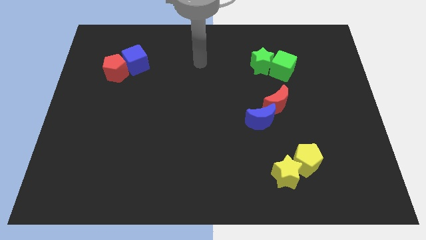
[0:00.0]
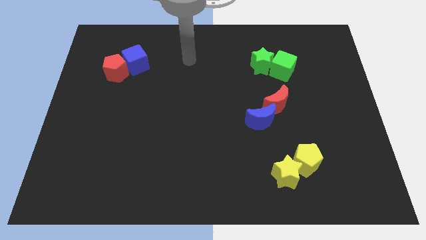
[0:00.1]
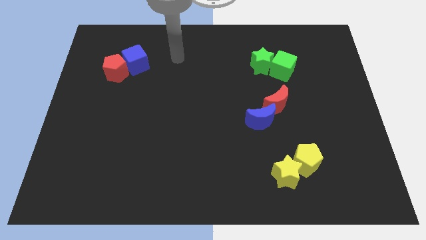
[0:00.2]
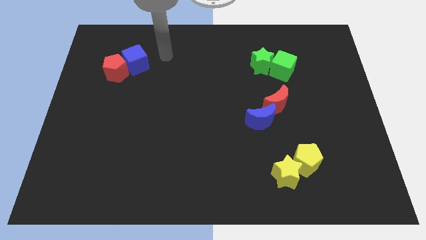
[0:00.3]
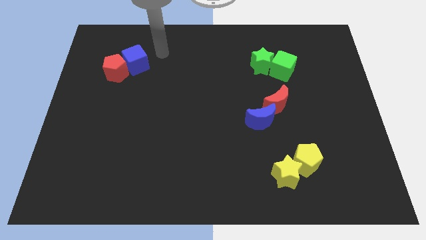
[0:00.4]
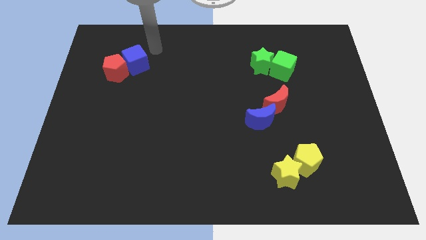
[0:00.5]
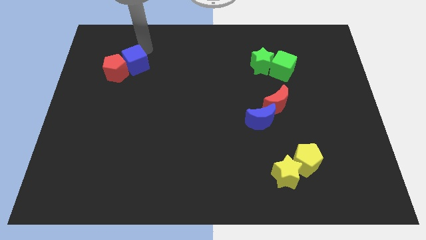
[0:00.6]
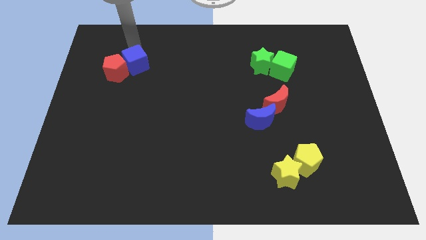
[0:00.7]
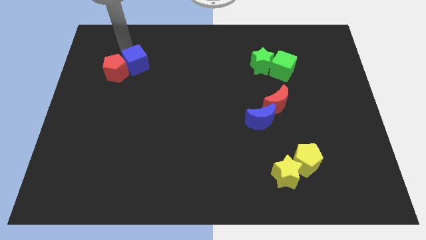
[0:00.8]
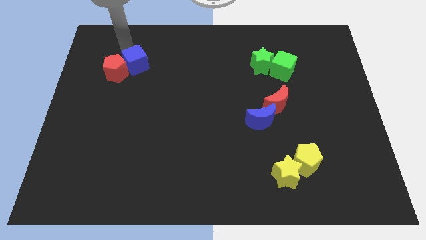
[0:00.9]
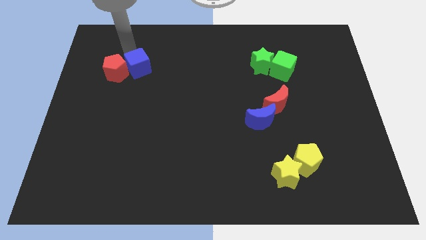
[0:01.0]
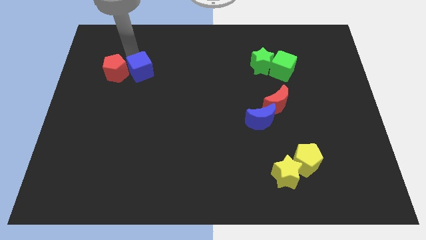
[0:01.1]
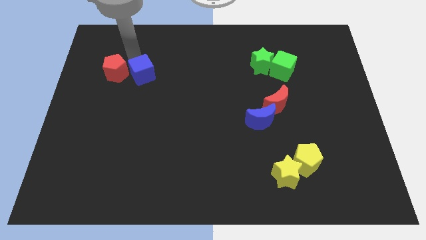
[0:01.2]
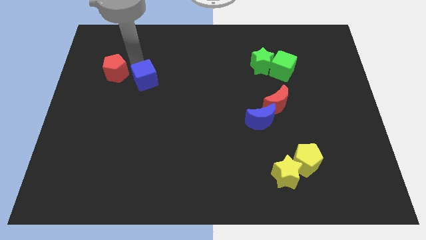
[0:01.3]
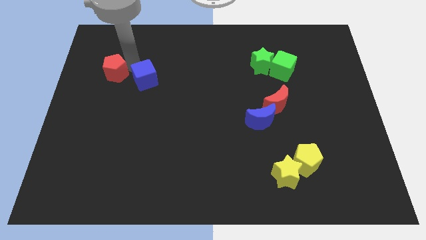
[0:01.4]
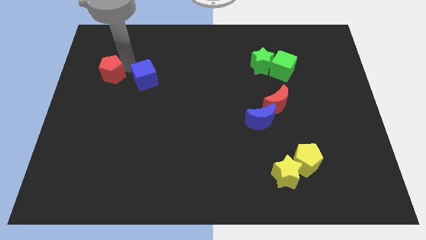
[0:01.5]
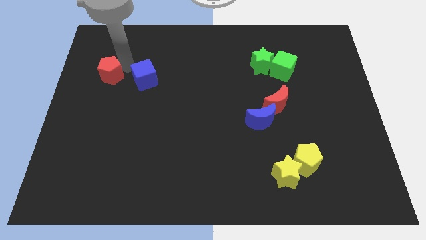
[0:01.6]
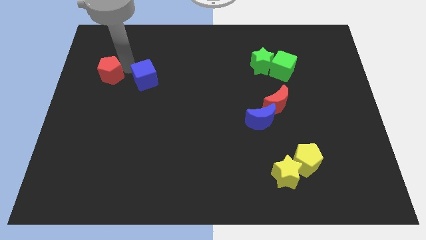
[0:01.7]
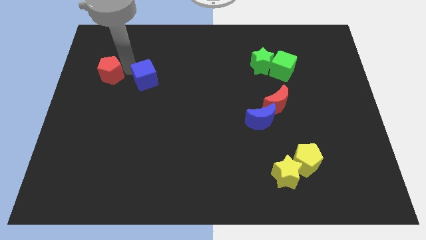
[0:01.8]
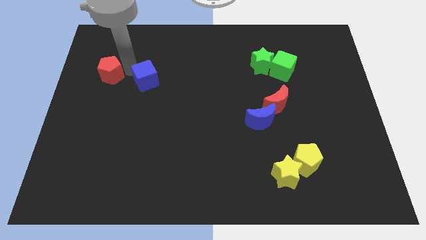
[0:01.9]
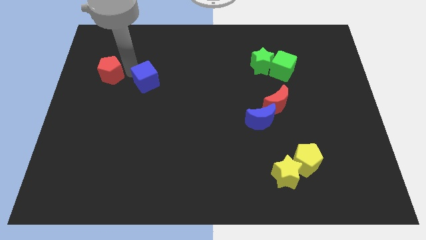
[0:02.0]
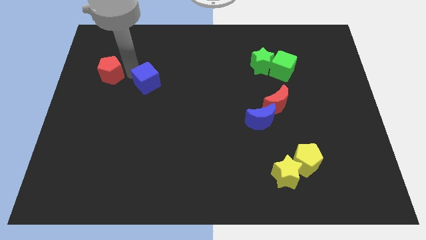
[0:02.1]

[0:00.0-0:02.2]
push the blue cube somewhat downwards and then to the right

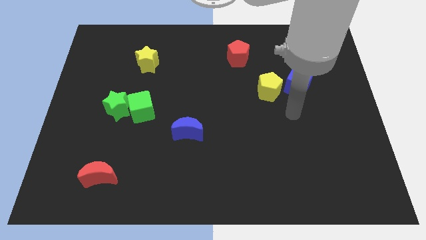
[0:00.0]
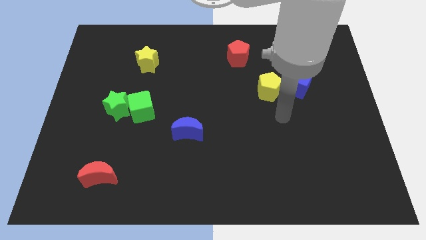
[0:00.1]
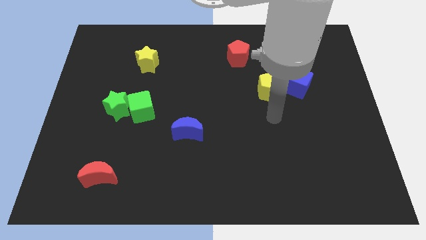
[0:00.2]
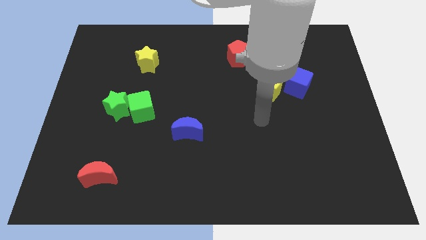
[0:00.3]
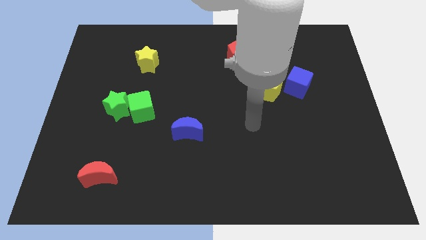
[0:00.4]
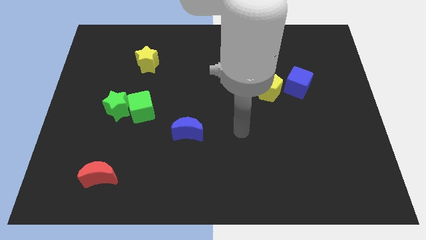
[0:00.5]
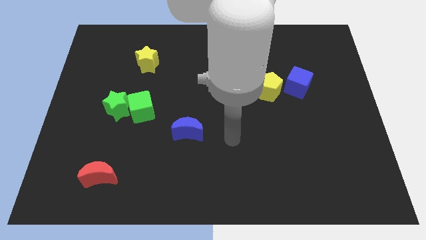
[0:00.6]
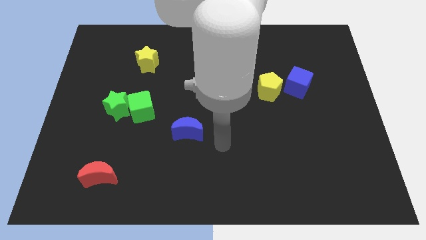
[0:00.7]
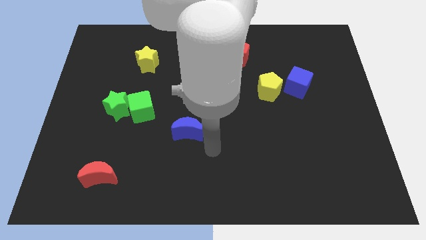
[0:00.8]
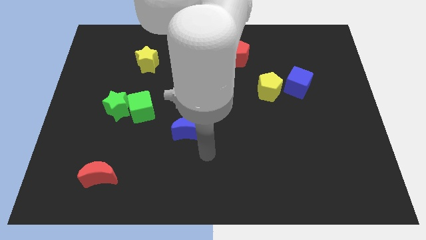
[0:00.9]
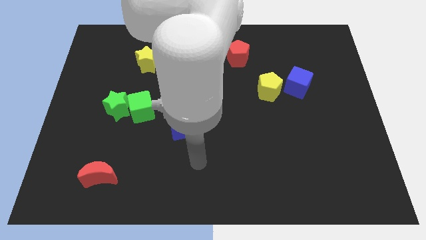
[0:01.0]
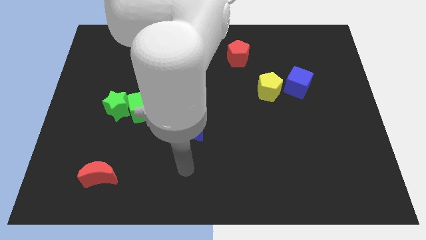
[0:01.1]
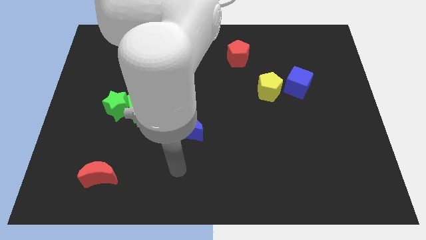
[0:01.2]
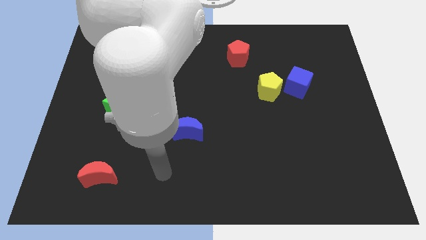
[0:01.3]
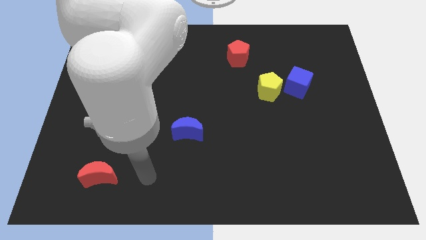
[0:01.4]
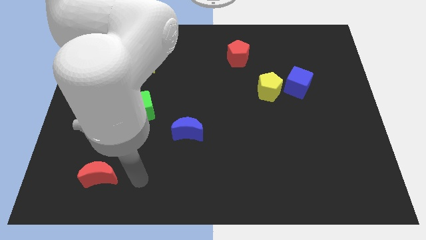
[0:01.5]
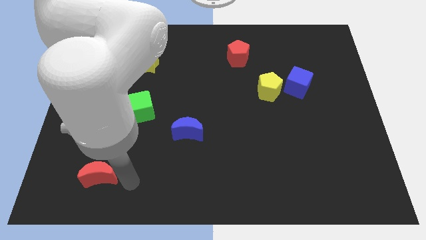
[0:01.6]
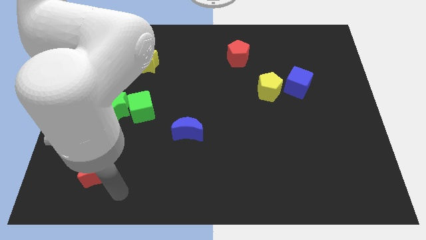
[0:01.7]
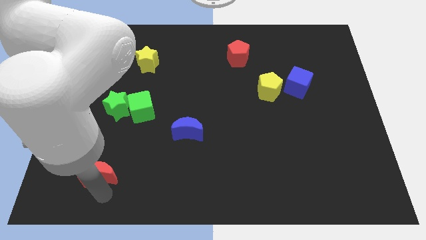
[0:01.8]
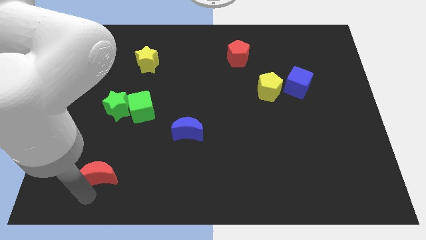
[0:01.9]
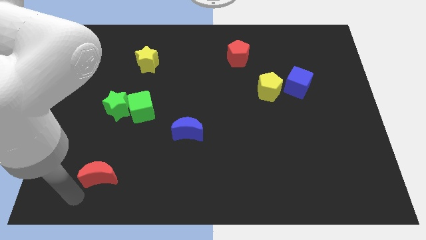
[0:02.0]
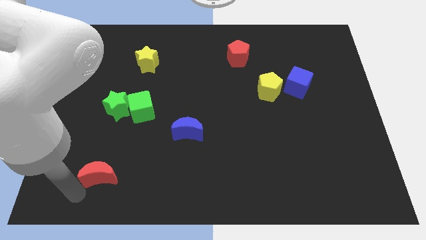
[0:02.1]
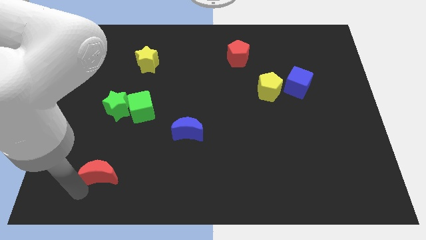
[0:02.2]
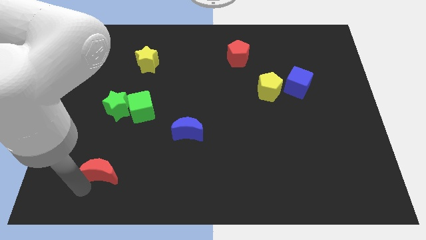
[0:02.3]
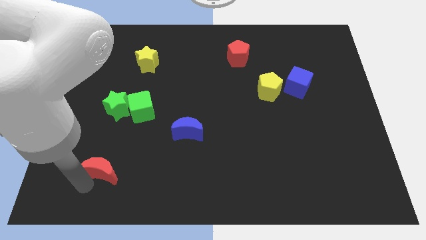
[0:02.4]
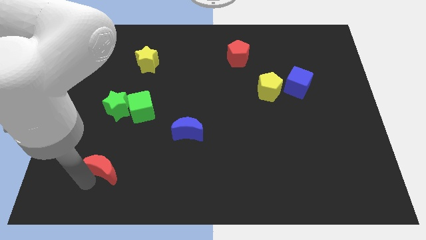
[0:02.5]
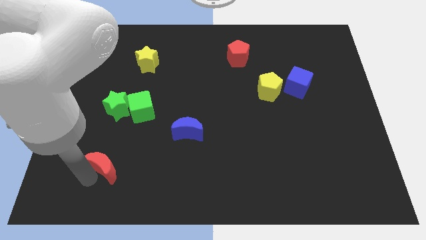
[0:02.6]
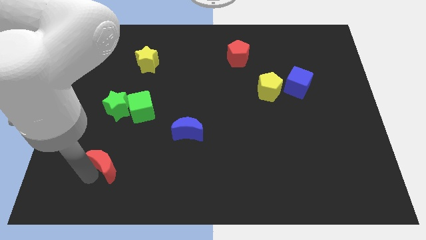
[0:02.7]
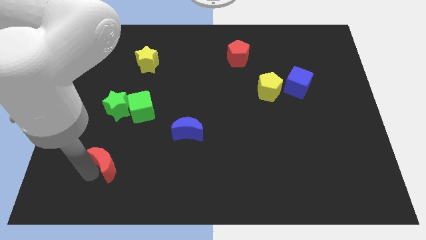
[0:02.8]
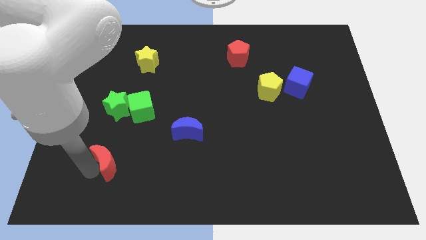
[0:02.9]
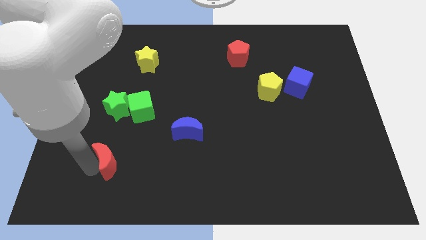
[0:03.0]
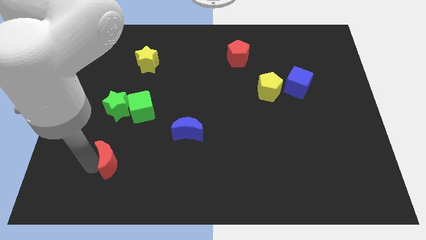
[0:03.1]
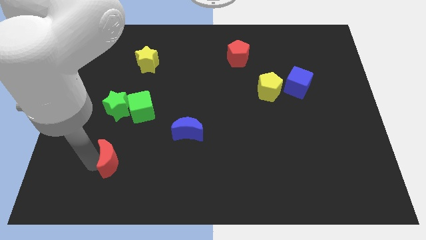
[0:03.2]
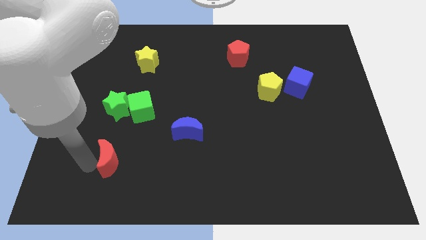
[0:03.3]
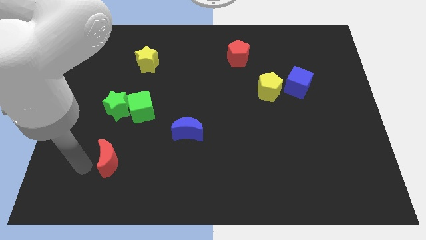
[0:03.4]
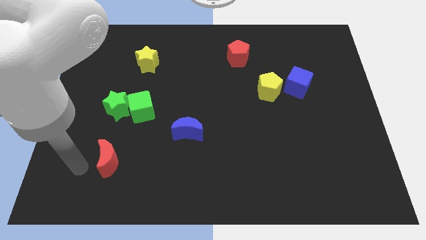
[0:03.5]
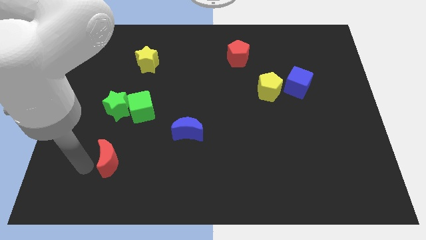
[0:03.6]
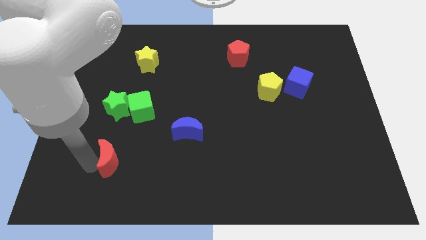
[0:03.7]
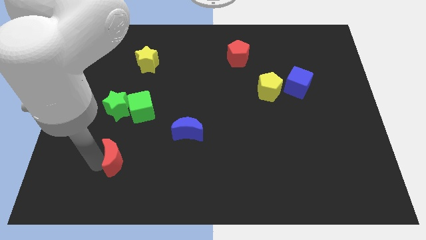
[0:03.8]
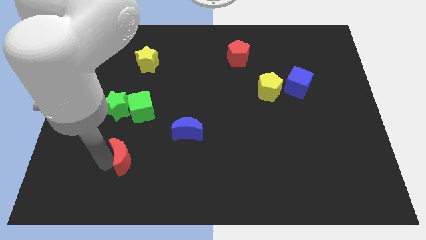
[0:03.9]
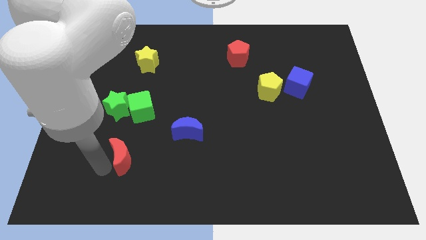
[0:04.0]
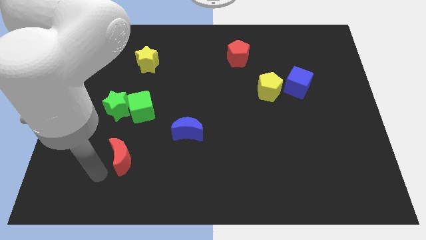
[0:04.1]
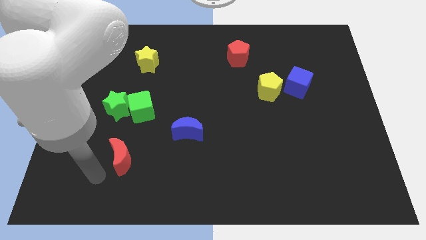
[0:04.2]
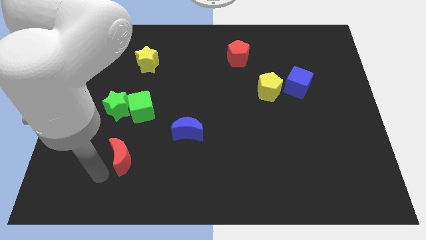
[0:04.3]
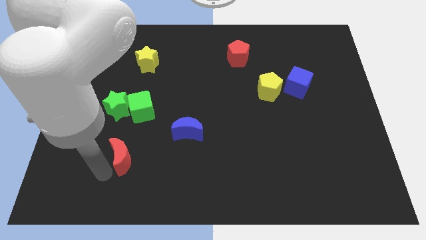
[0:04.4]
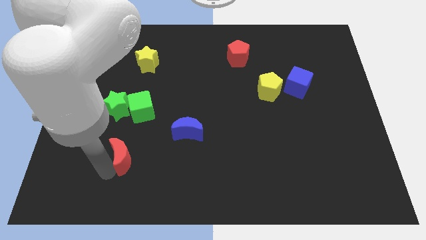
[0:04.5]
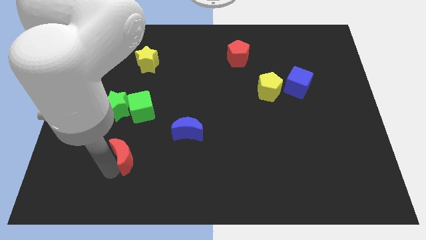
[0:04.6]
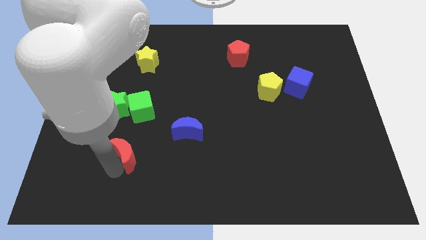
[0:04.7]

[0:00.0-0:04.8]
slightly push the red moon diagonally up and to the right

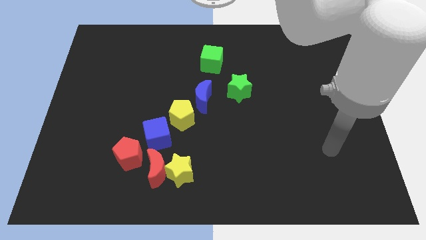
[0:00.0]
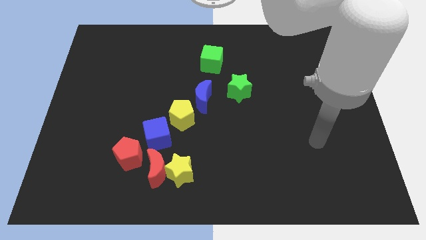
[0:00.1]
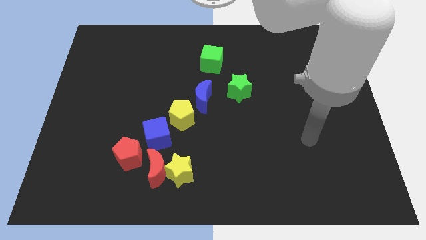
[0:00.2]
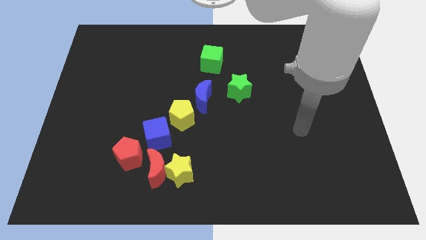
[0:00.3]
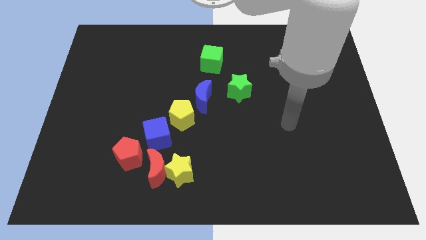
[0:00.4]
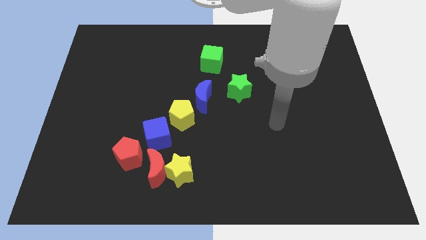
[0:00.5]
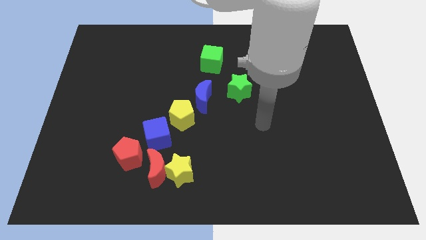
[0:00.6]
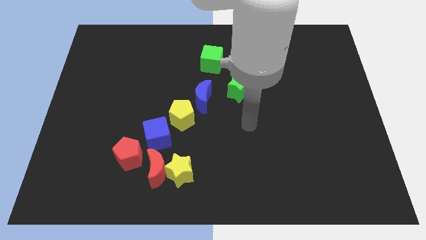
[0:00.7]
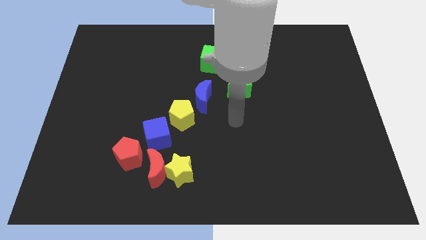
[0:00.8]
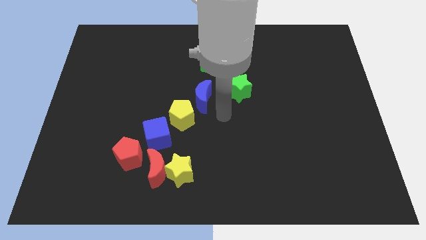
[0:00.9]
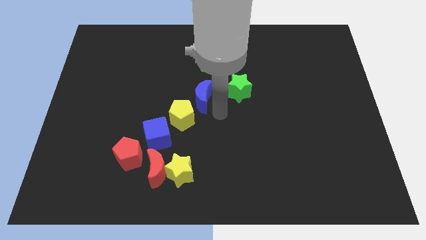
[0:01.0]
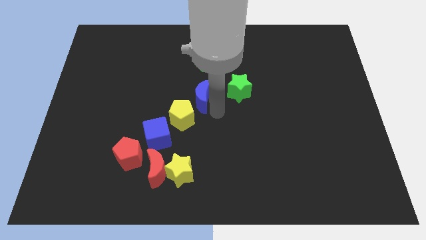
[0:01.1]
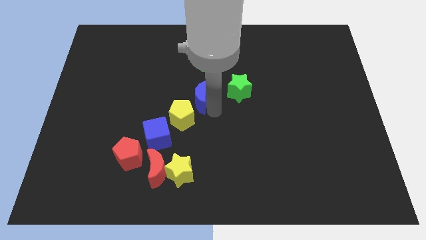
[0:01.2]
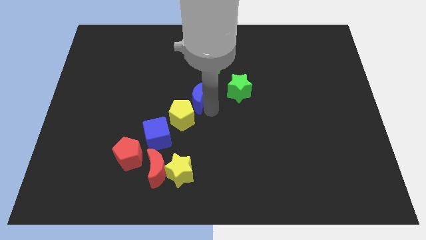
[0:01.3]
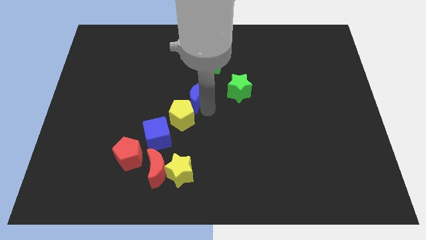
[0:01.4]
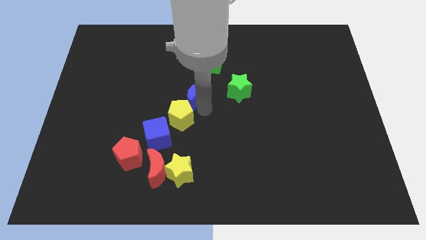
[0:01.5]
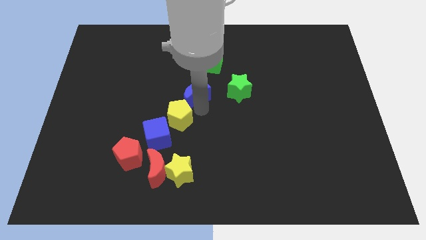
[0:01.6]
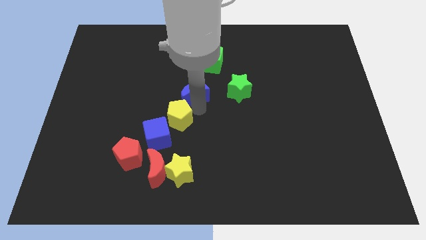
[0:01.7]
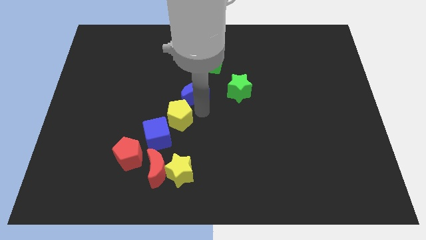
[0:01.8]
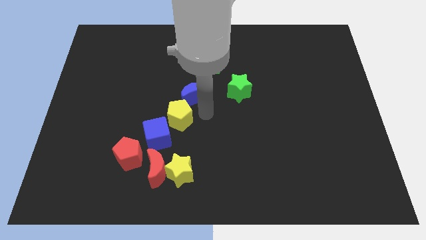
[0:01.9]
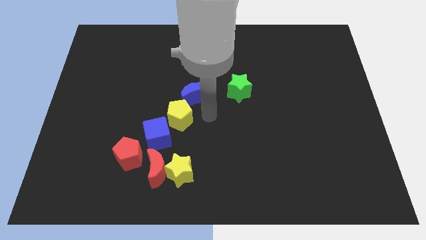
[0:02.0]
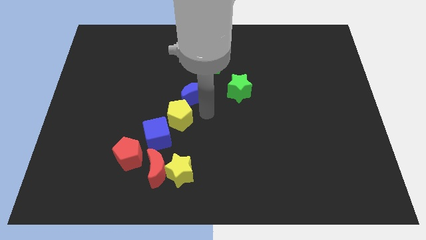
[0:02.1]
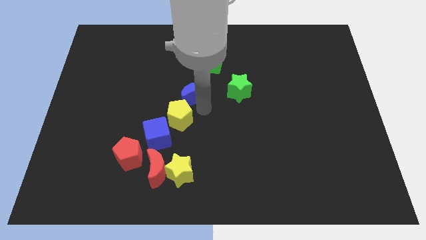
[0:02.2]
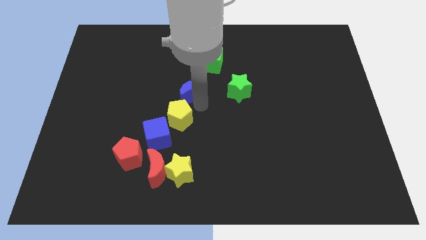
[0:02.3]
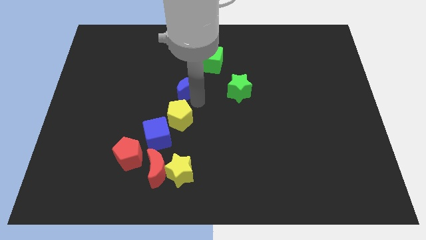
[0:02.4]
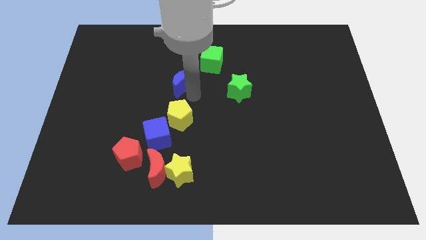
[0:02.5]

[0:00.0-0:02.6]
slightly move the blue moon up and then to the left
